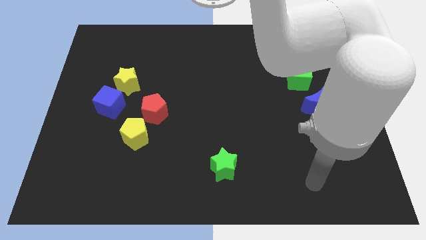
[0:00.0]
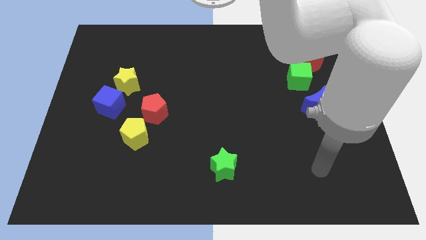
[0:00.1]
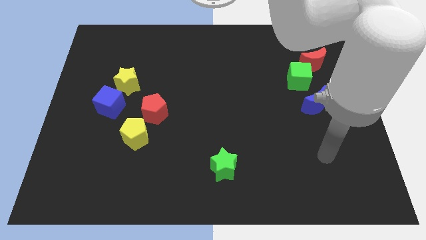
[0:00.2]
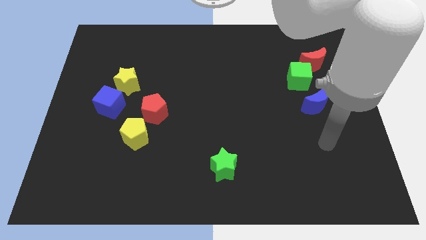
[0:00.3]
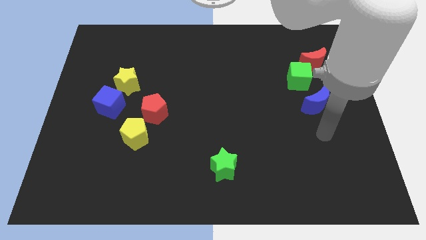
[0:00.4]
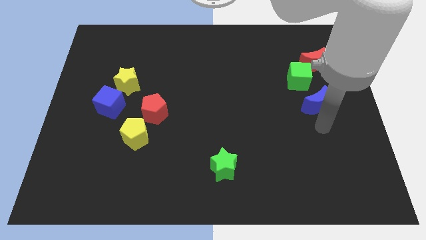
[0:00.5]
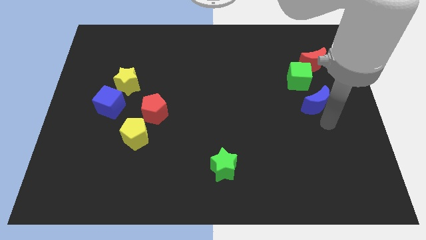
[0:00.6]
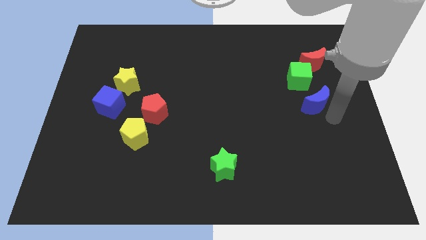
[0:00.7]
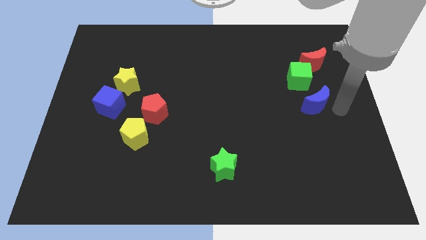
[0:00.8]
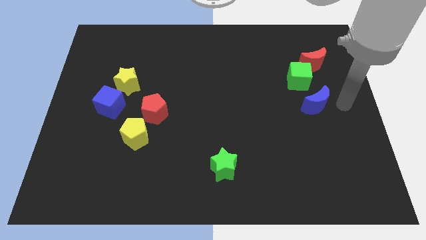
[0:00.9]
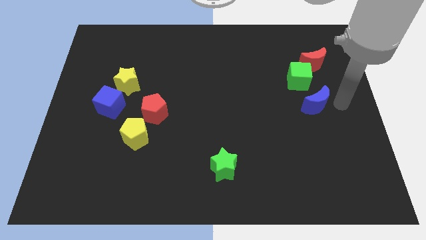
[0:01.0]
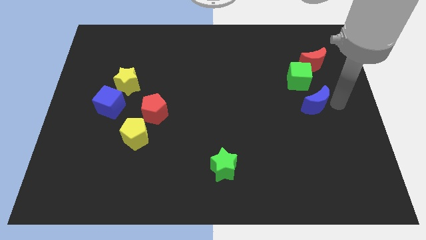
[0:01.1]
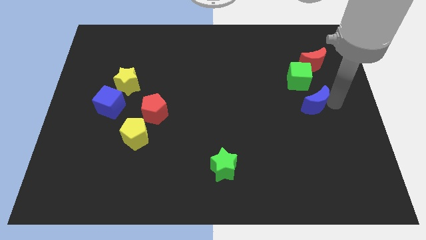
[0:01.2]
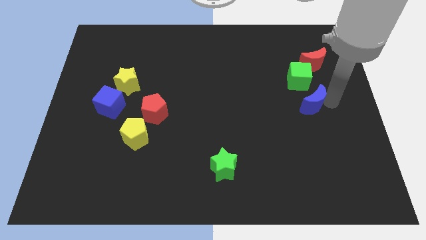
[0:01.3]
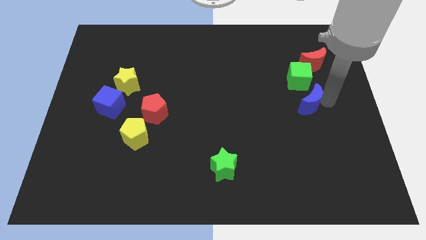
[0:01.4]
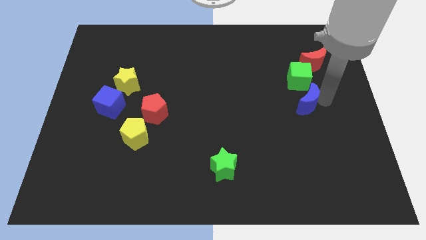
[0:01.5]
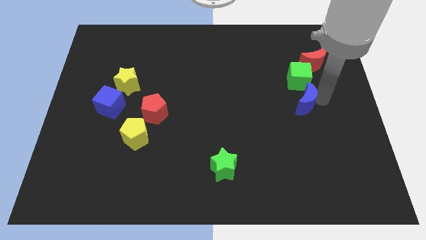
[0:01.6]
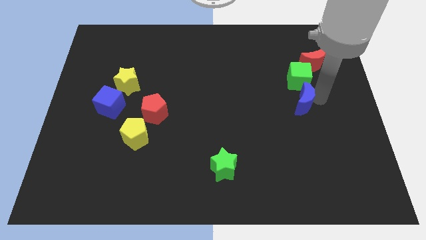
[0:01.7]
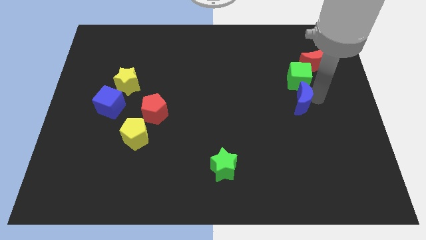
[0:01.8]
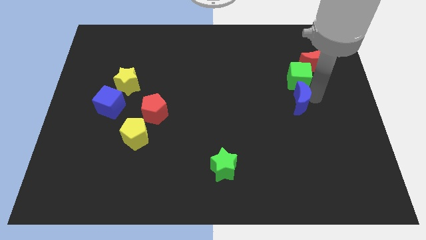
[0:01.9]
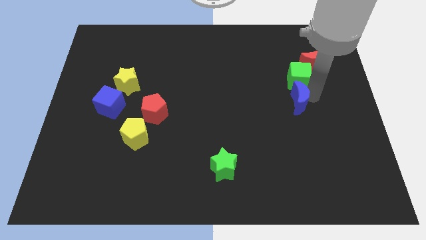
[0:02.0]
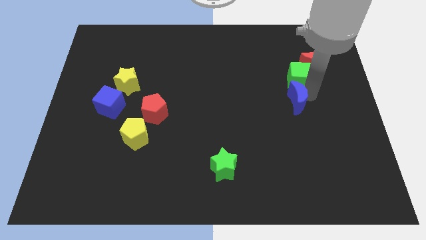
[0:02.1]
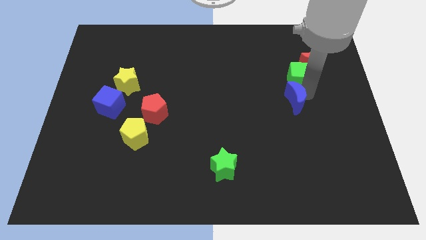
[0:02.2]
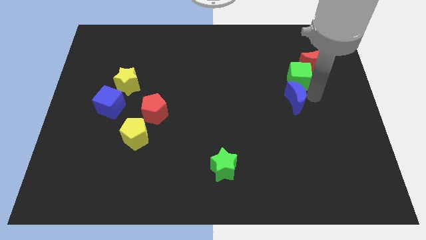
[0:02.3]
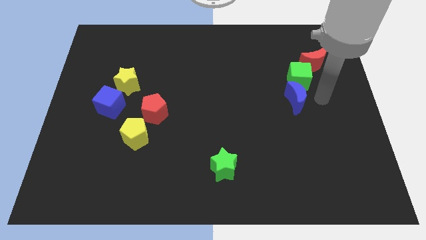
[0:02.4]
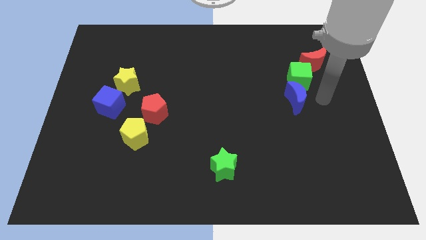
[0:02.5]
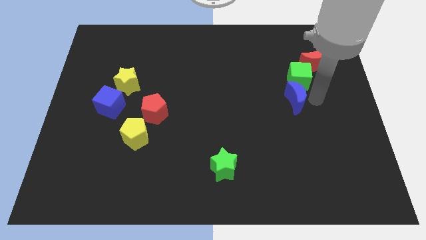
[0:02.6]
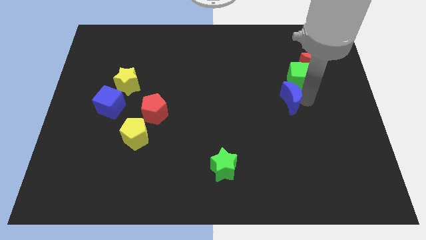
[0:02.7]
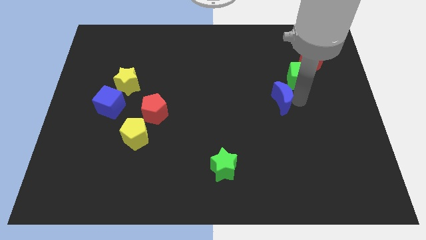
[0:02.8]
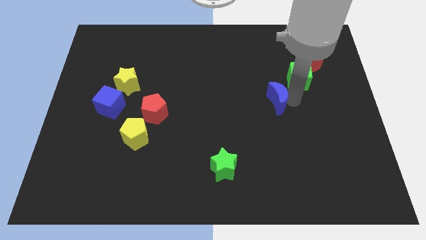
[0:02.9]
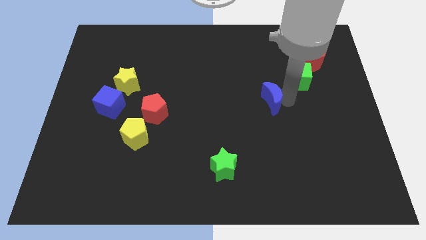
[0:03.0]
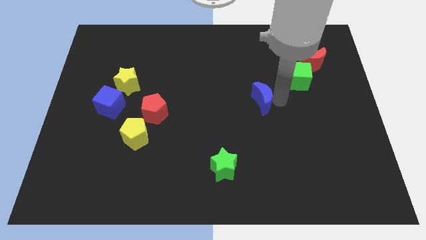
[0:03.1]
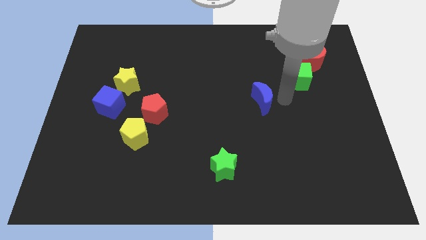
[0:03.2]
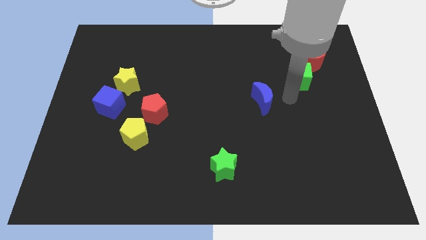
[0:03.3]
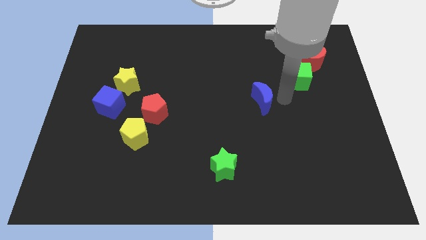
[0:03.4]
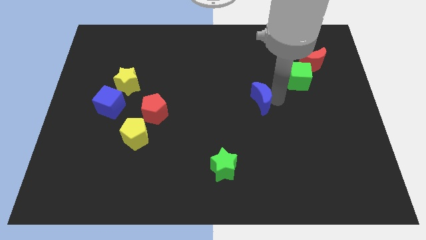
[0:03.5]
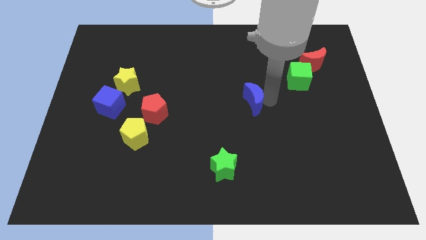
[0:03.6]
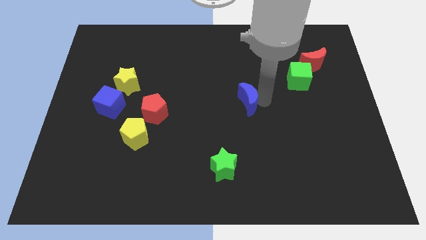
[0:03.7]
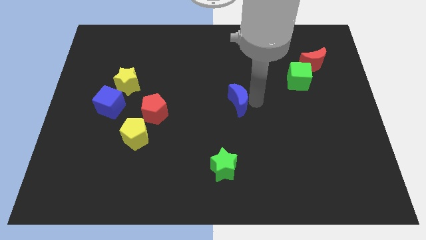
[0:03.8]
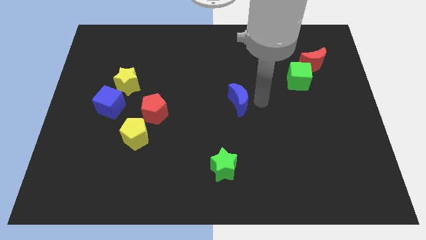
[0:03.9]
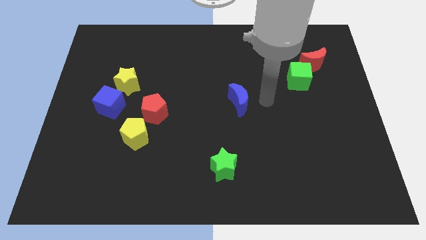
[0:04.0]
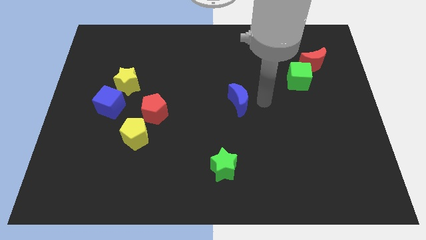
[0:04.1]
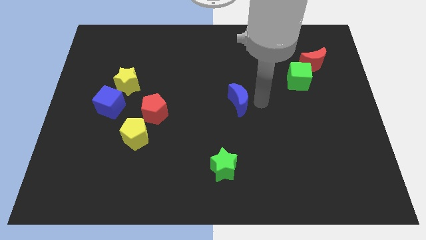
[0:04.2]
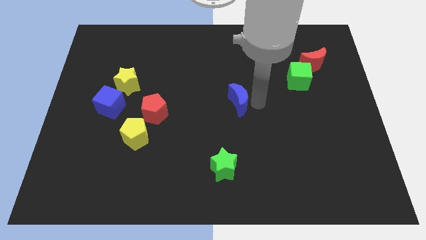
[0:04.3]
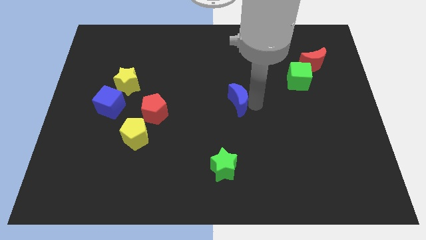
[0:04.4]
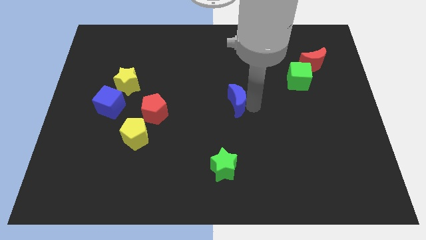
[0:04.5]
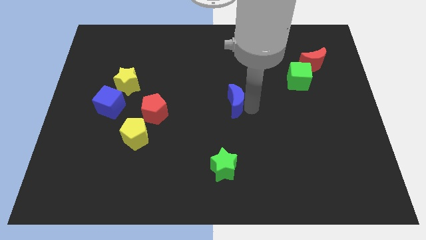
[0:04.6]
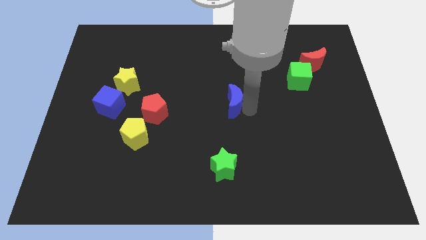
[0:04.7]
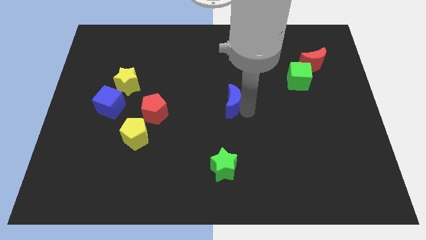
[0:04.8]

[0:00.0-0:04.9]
move the blue moon left

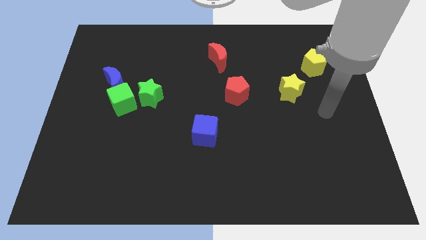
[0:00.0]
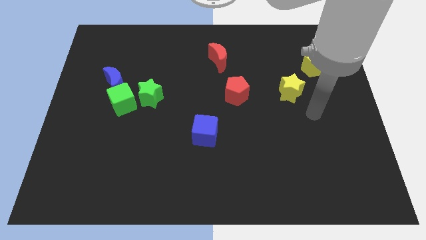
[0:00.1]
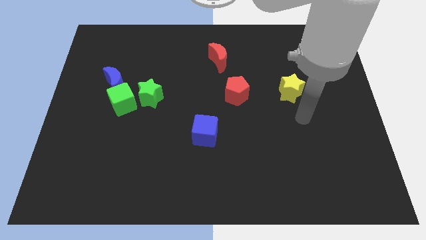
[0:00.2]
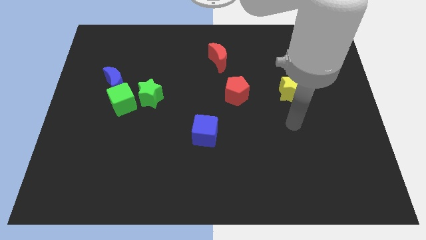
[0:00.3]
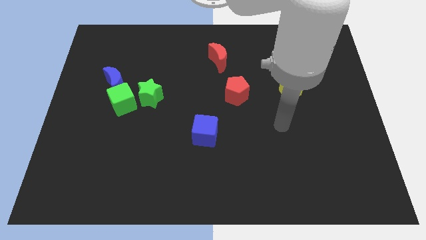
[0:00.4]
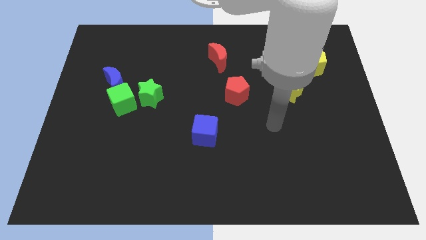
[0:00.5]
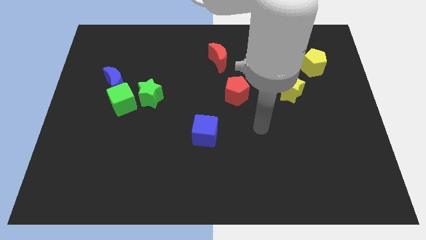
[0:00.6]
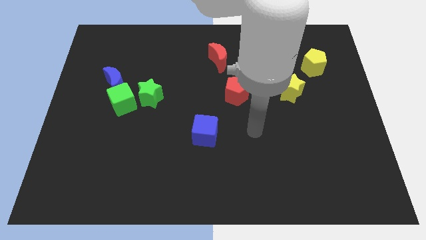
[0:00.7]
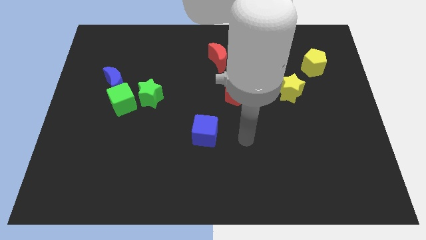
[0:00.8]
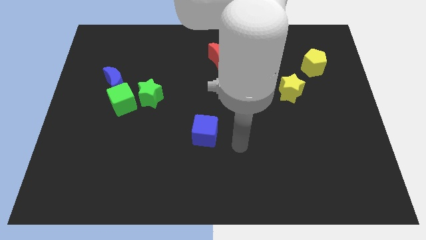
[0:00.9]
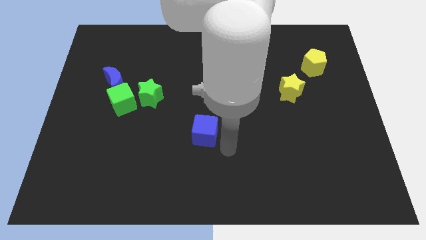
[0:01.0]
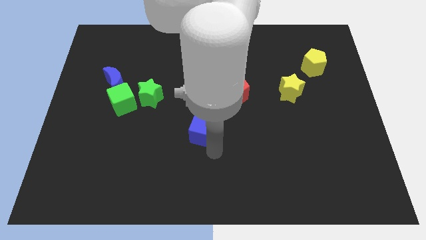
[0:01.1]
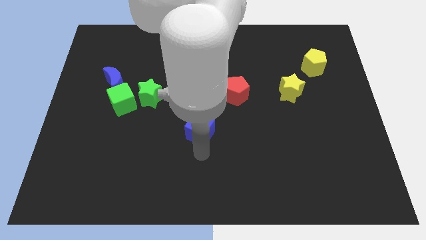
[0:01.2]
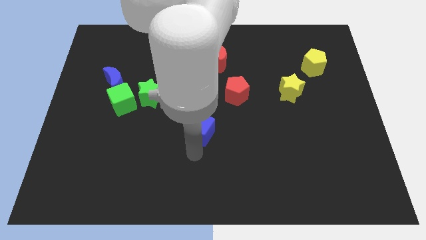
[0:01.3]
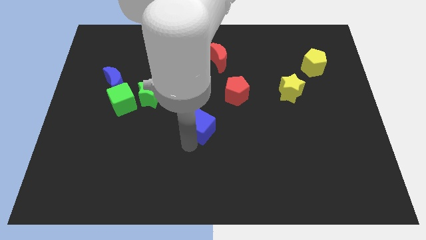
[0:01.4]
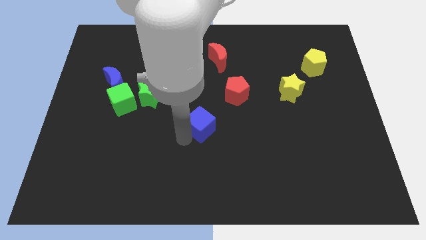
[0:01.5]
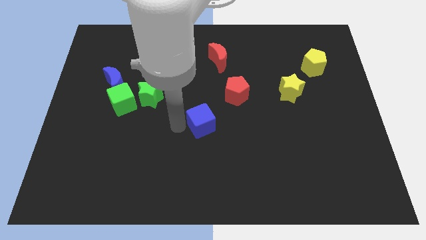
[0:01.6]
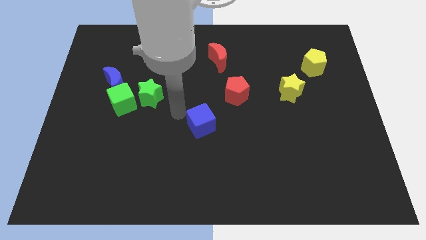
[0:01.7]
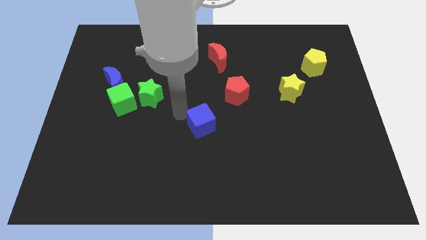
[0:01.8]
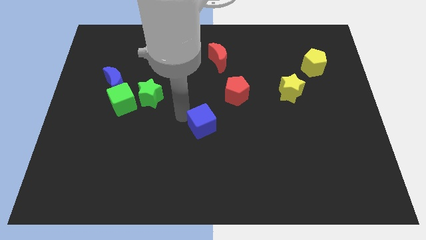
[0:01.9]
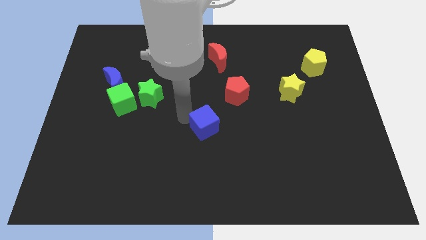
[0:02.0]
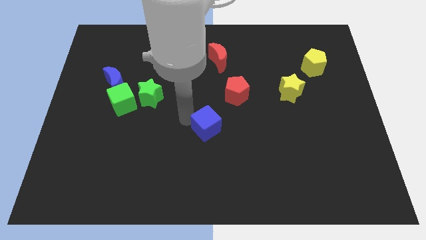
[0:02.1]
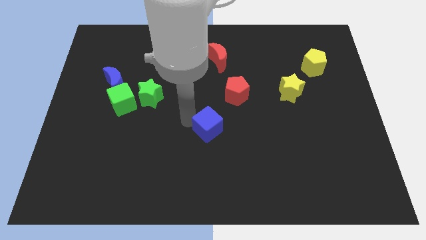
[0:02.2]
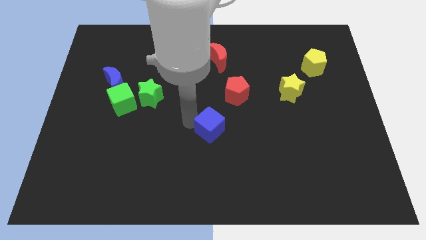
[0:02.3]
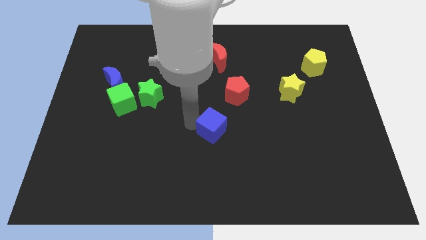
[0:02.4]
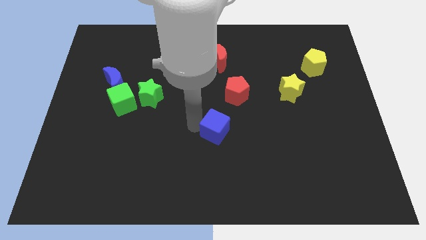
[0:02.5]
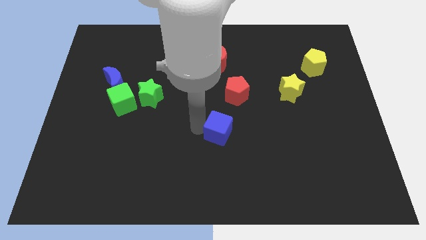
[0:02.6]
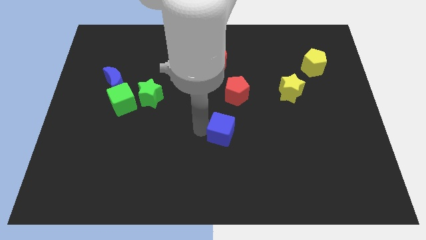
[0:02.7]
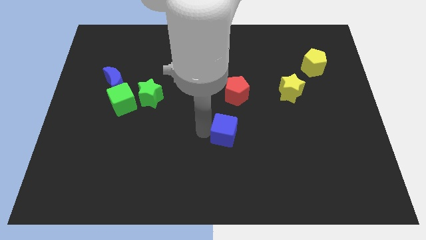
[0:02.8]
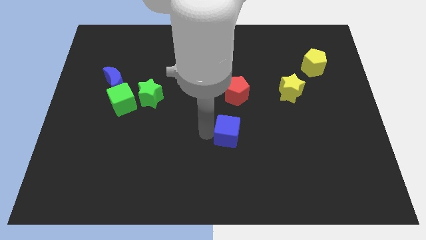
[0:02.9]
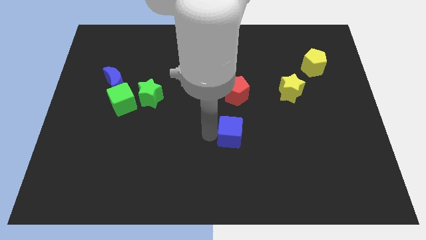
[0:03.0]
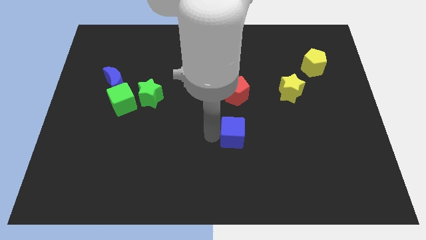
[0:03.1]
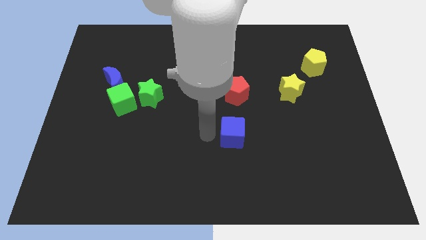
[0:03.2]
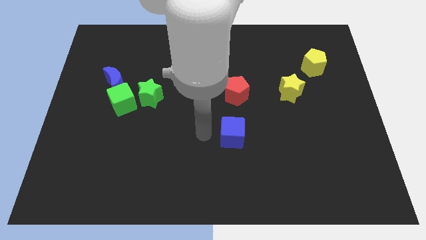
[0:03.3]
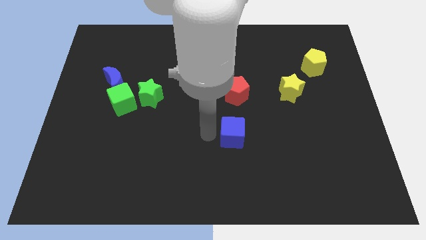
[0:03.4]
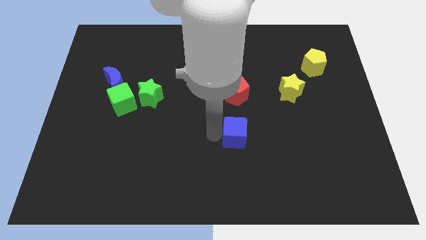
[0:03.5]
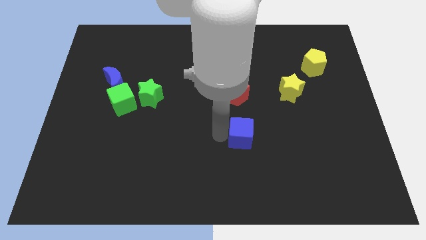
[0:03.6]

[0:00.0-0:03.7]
slightly move the blue cube to the right
